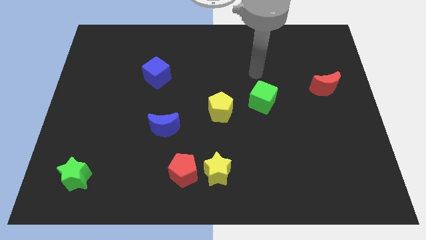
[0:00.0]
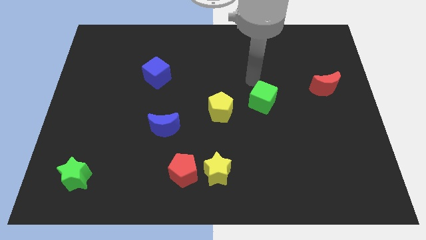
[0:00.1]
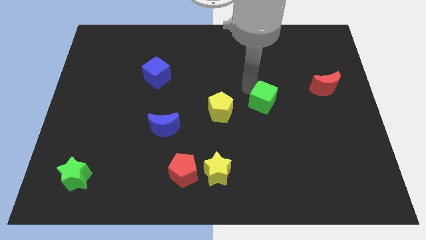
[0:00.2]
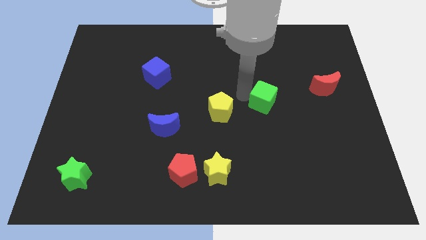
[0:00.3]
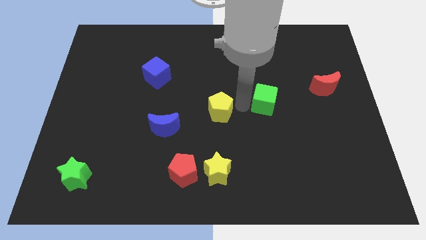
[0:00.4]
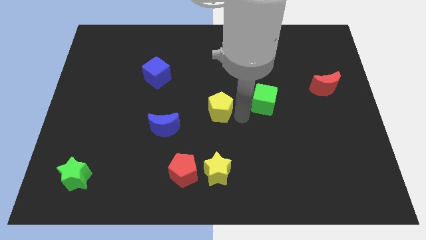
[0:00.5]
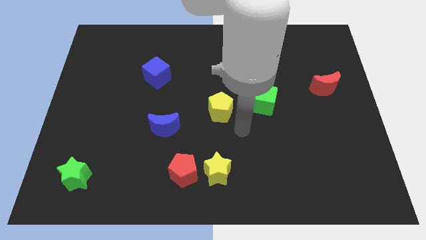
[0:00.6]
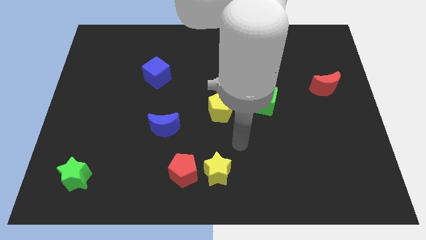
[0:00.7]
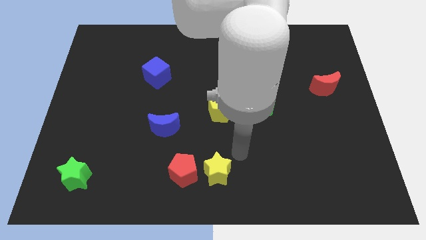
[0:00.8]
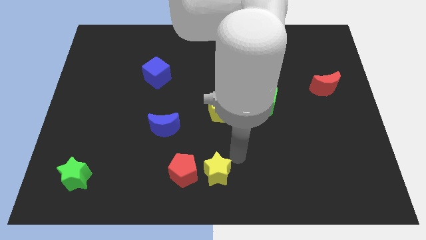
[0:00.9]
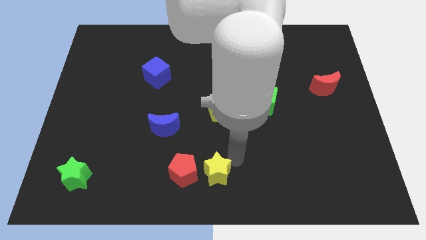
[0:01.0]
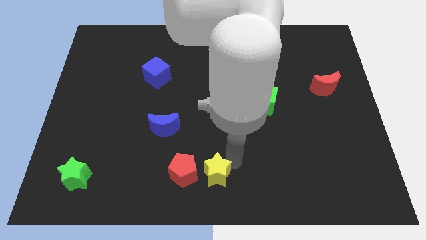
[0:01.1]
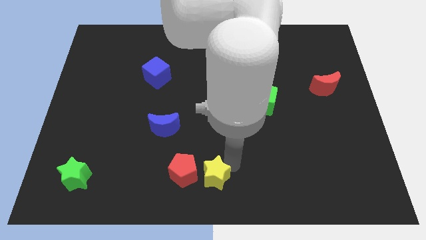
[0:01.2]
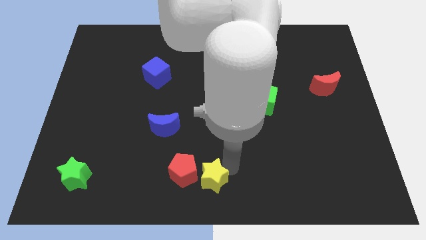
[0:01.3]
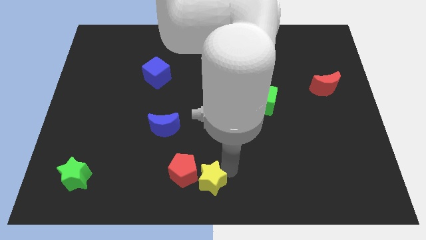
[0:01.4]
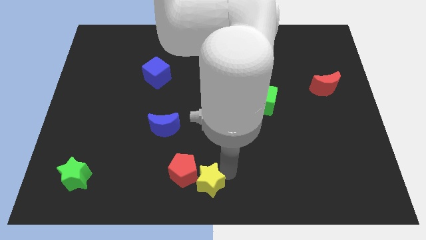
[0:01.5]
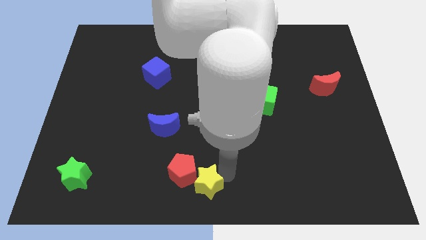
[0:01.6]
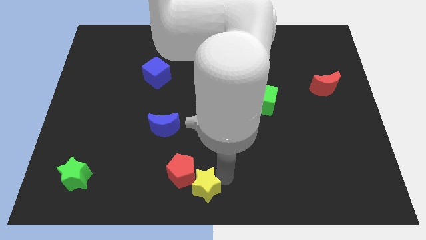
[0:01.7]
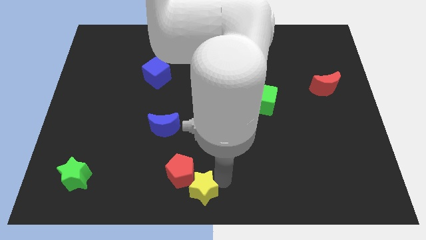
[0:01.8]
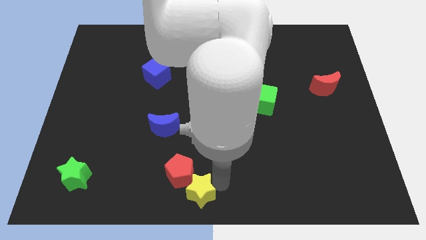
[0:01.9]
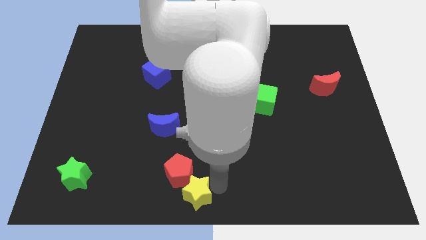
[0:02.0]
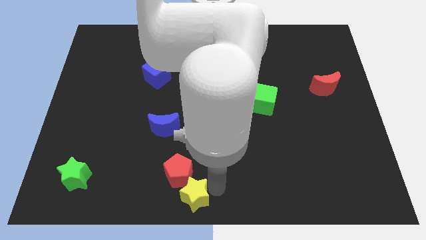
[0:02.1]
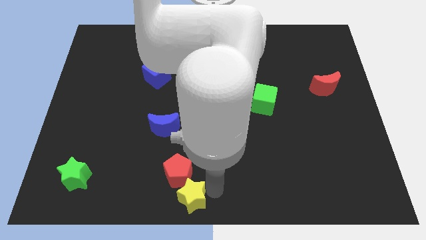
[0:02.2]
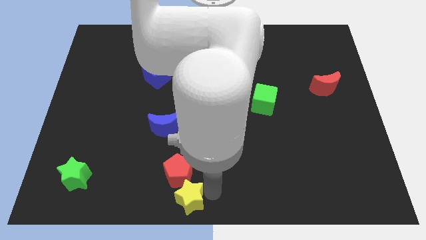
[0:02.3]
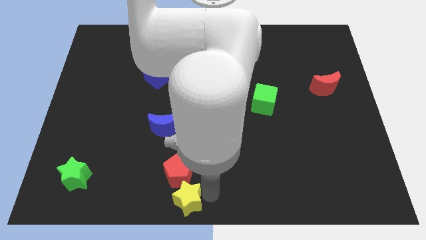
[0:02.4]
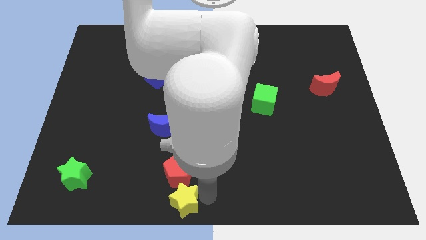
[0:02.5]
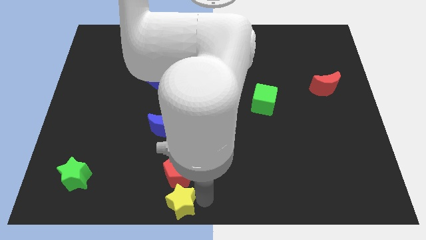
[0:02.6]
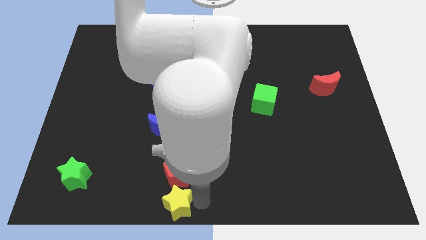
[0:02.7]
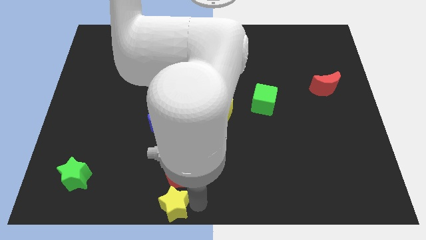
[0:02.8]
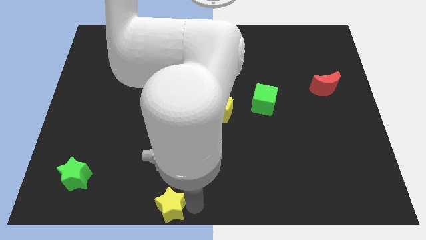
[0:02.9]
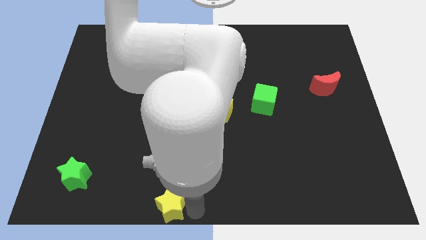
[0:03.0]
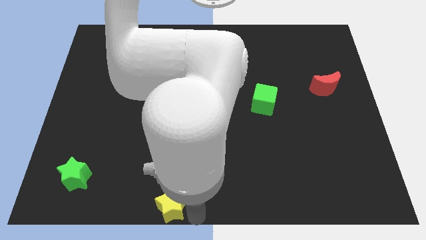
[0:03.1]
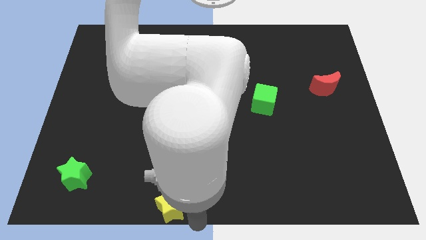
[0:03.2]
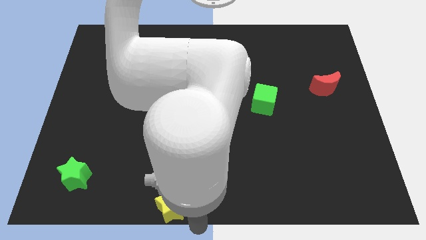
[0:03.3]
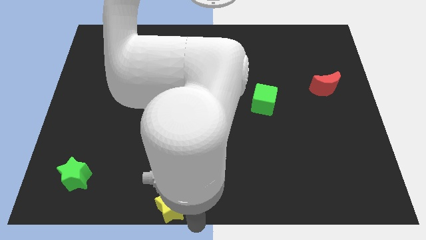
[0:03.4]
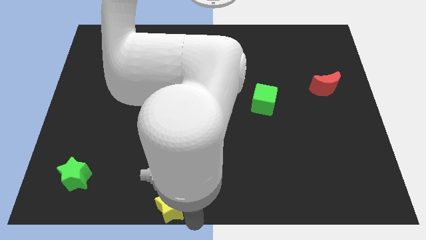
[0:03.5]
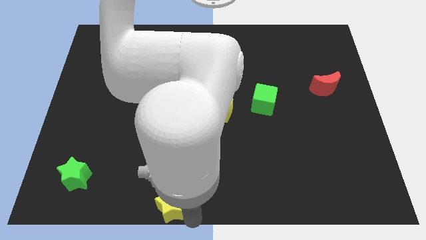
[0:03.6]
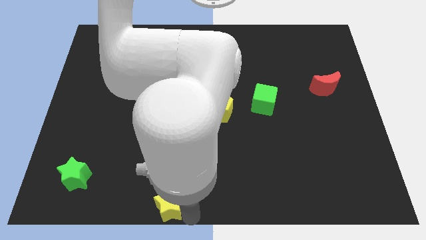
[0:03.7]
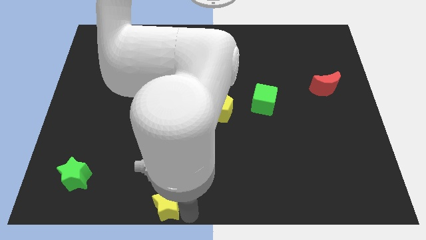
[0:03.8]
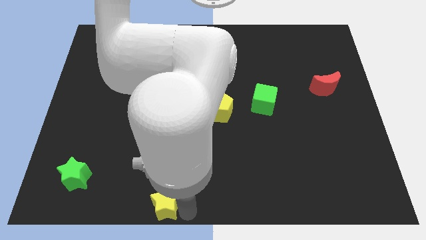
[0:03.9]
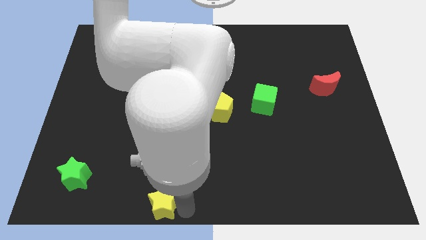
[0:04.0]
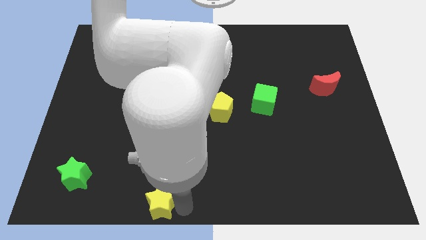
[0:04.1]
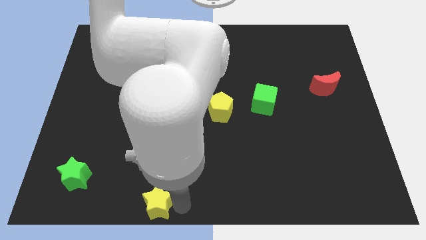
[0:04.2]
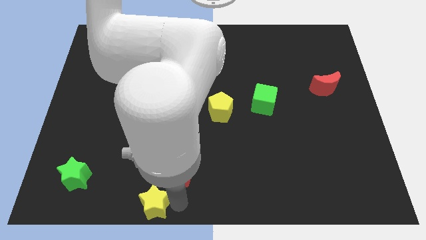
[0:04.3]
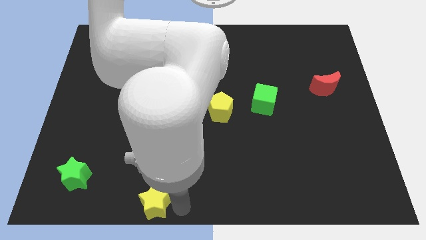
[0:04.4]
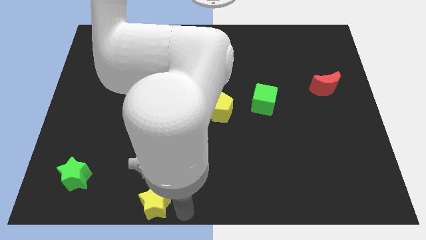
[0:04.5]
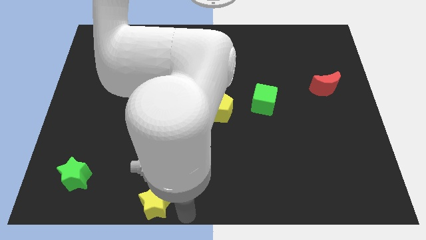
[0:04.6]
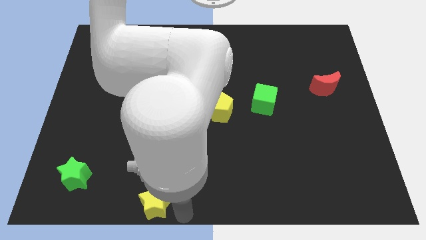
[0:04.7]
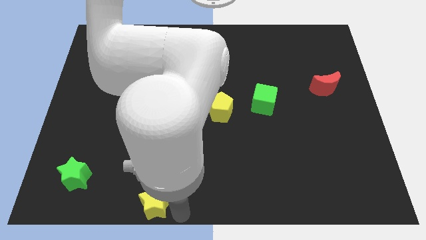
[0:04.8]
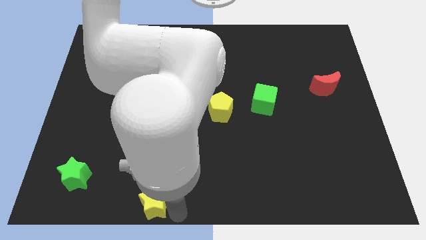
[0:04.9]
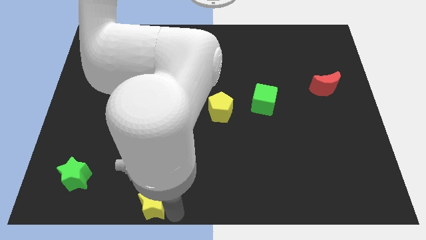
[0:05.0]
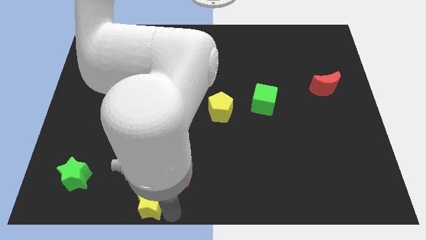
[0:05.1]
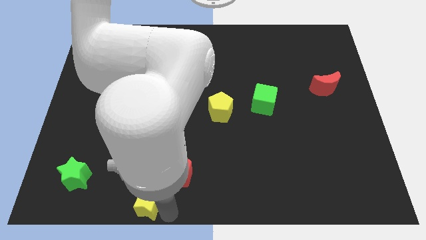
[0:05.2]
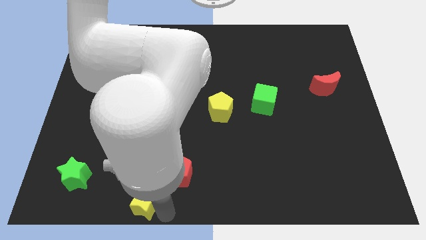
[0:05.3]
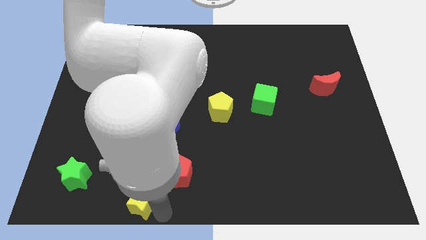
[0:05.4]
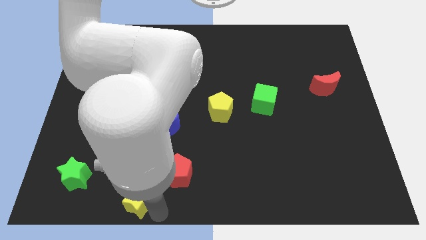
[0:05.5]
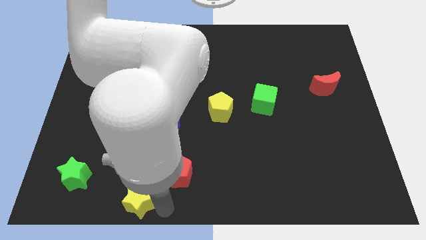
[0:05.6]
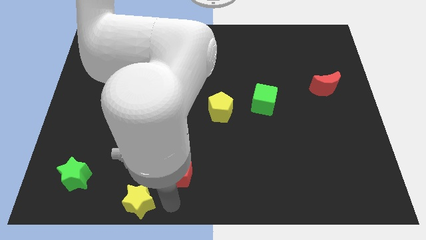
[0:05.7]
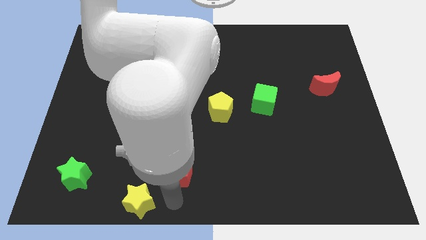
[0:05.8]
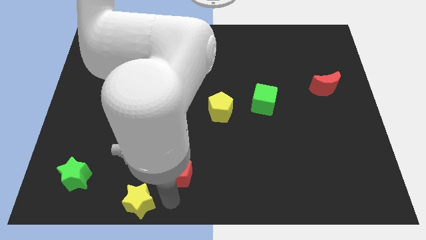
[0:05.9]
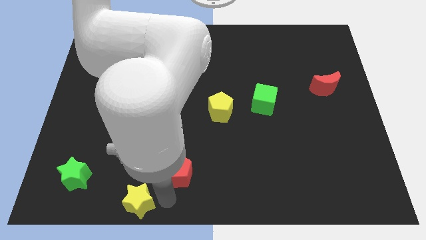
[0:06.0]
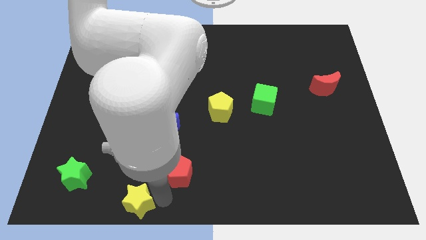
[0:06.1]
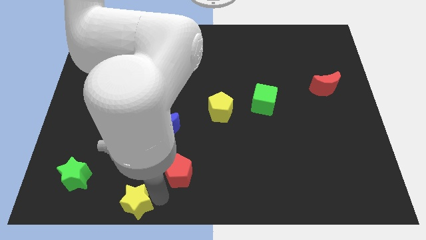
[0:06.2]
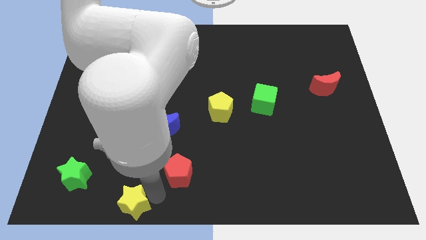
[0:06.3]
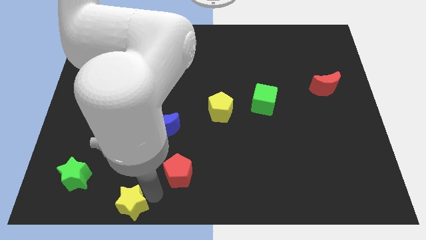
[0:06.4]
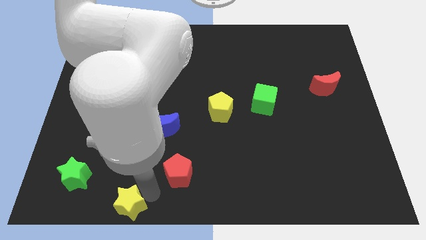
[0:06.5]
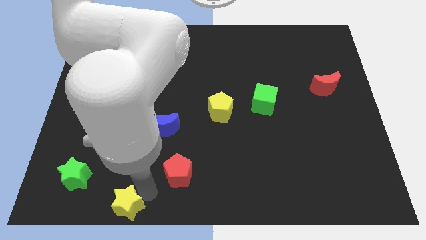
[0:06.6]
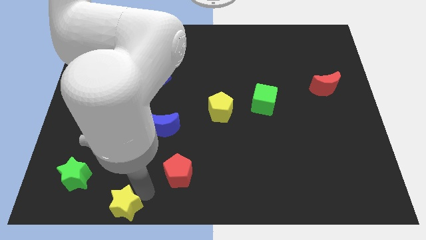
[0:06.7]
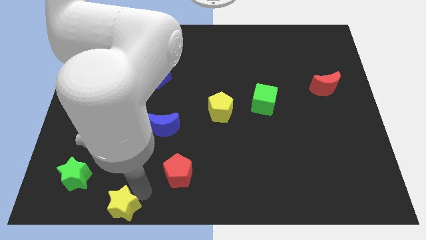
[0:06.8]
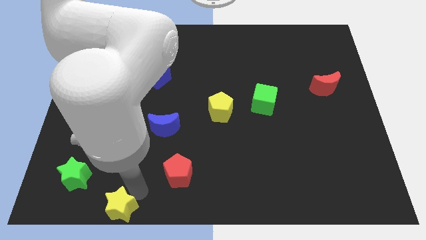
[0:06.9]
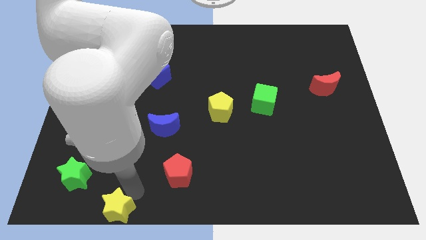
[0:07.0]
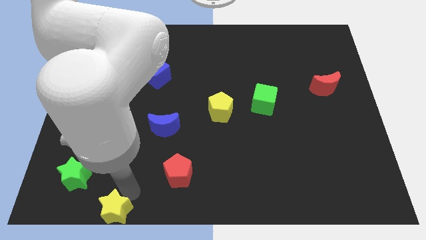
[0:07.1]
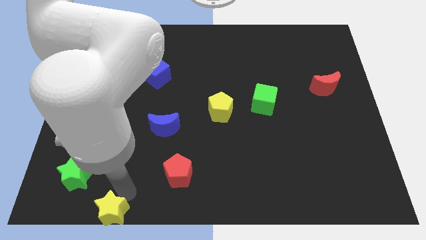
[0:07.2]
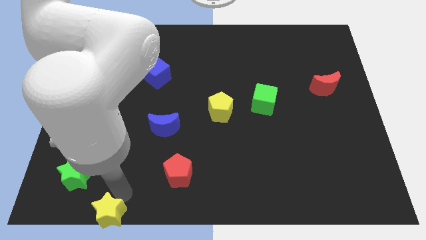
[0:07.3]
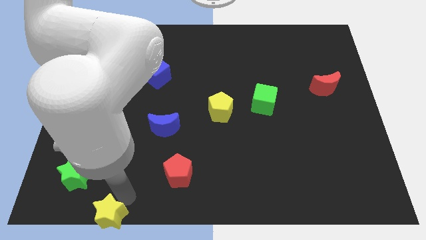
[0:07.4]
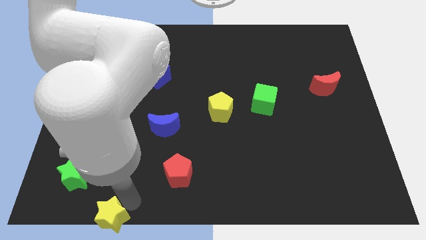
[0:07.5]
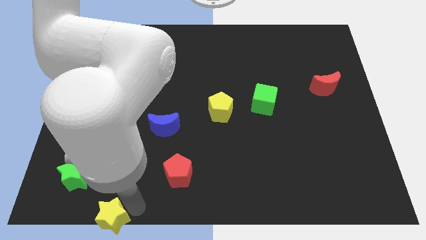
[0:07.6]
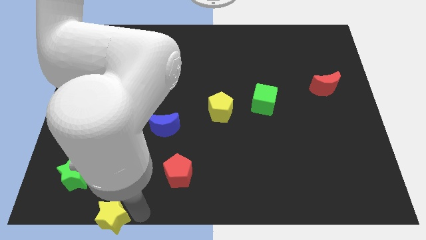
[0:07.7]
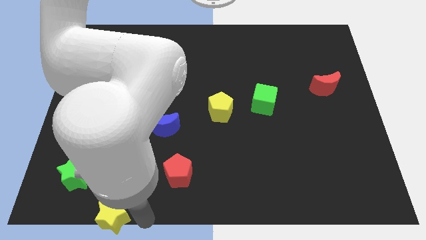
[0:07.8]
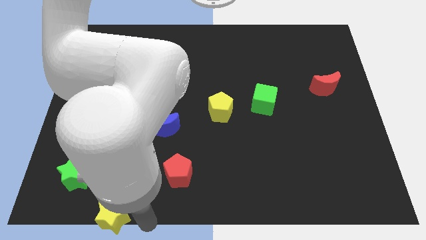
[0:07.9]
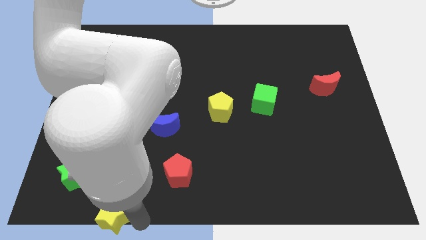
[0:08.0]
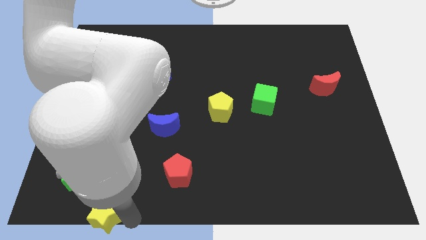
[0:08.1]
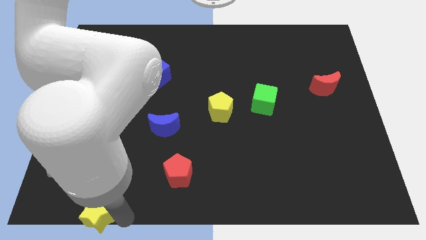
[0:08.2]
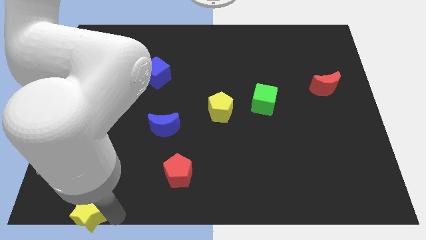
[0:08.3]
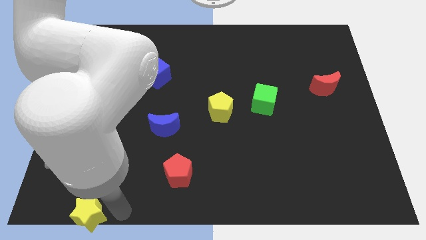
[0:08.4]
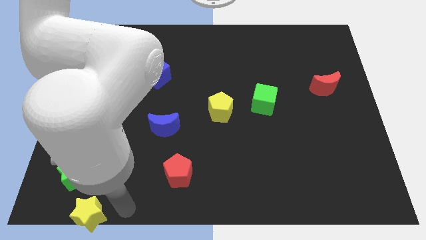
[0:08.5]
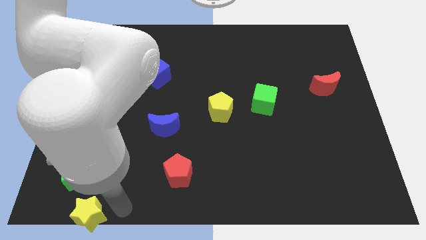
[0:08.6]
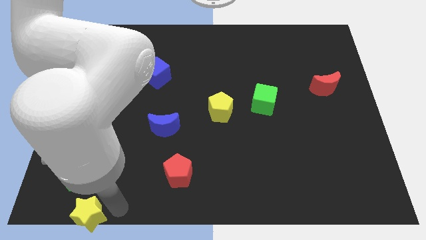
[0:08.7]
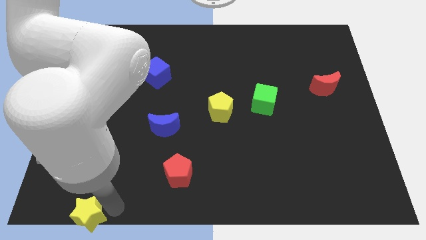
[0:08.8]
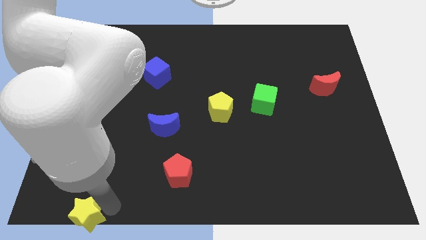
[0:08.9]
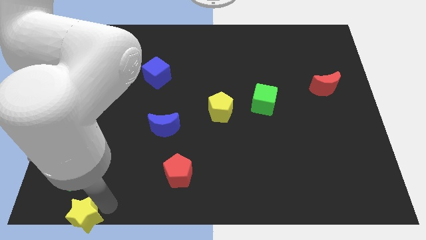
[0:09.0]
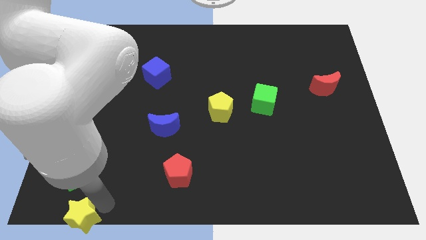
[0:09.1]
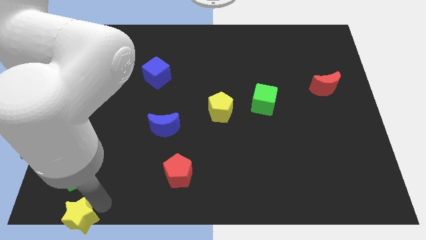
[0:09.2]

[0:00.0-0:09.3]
slide the yellow star to the bottom left of the board
